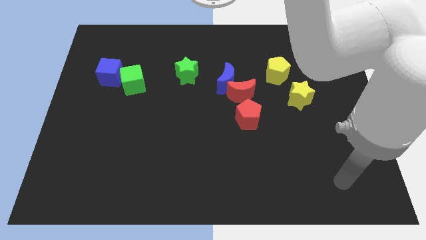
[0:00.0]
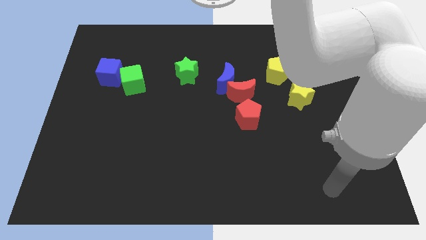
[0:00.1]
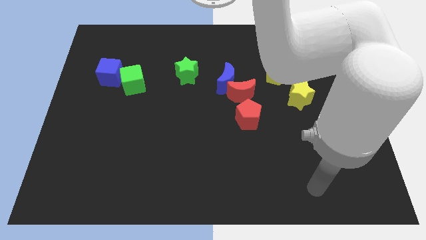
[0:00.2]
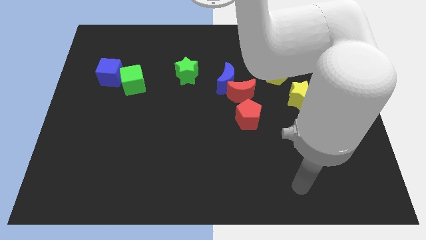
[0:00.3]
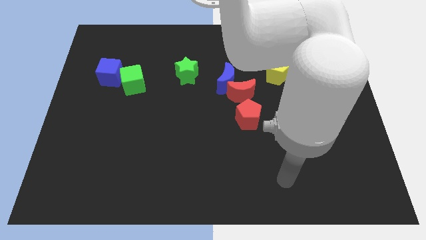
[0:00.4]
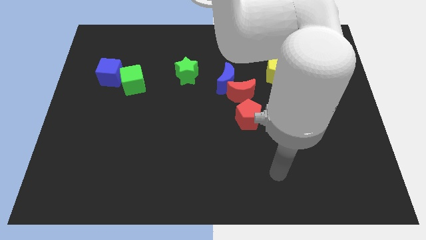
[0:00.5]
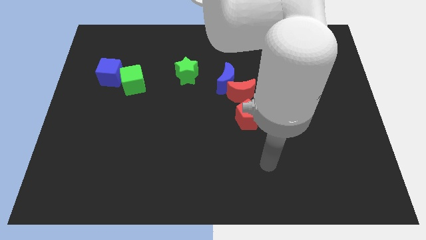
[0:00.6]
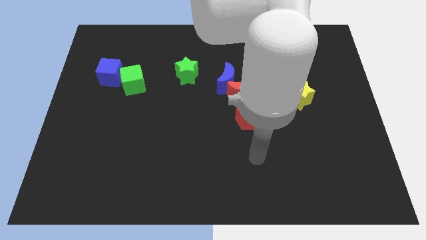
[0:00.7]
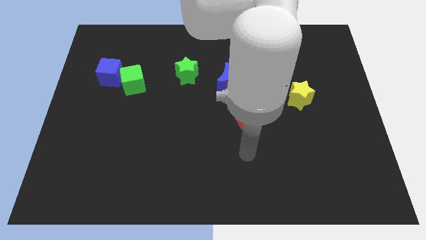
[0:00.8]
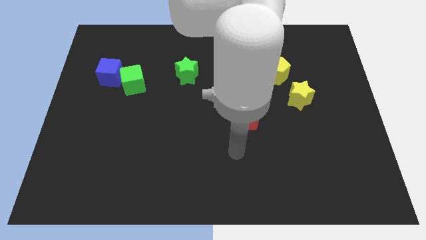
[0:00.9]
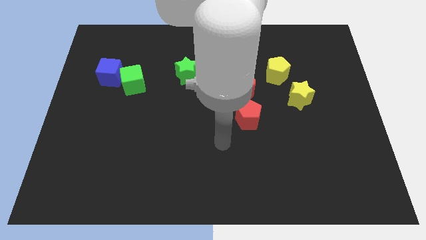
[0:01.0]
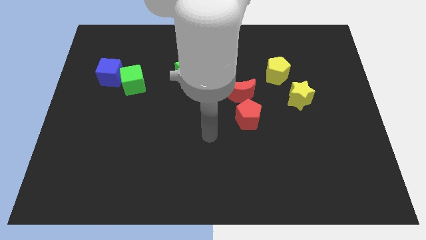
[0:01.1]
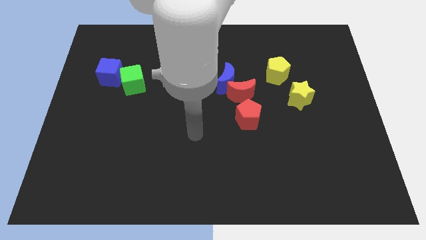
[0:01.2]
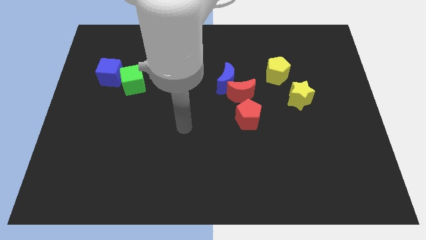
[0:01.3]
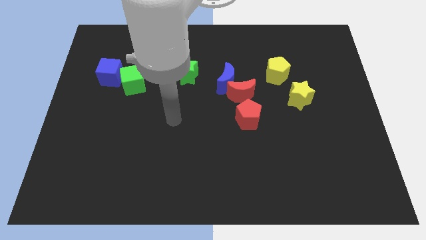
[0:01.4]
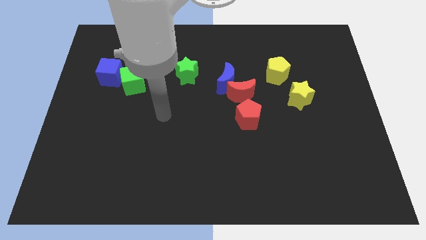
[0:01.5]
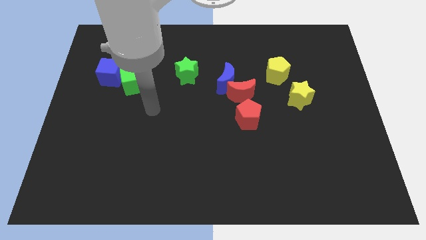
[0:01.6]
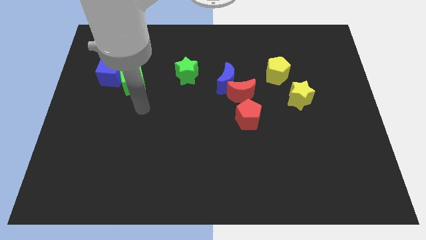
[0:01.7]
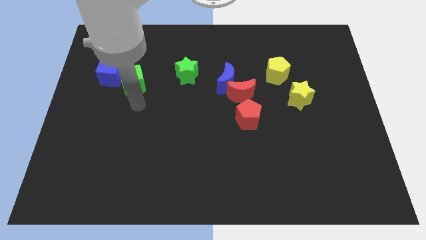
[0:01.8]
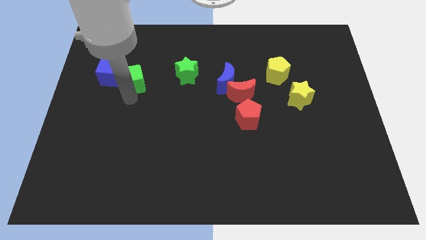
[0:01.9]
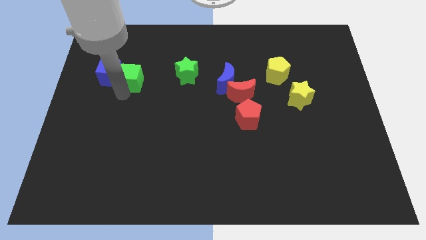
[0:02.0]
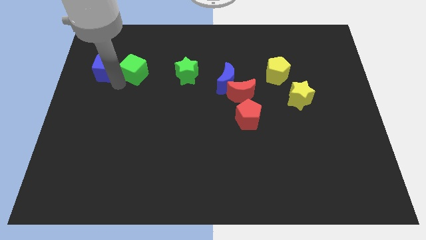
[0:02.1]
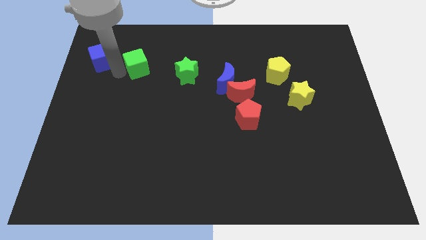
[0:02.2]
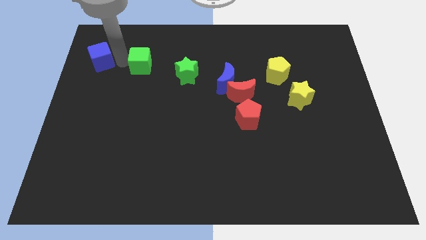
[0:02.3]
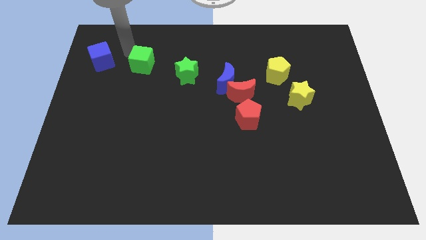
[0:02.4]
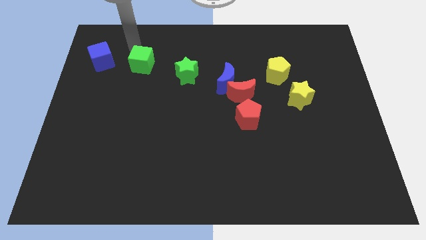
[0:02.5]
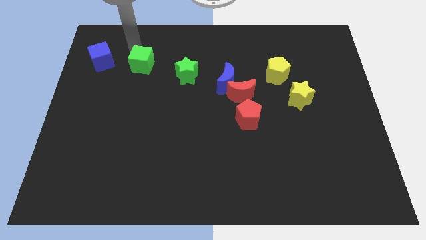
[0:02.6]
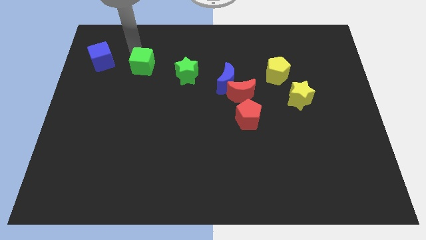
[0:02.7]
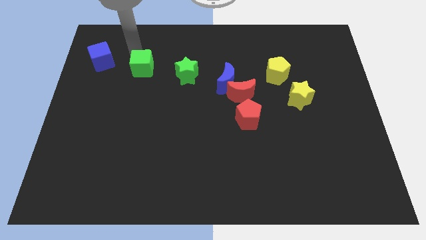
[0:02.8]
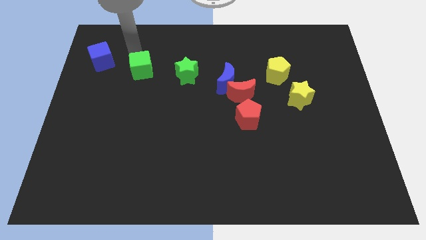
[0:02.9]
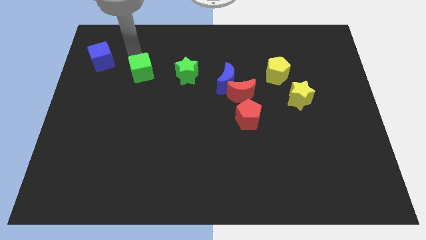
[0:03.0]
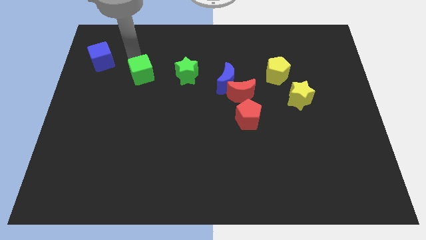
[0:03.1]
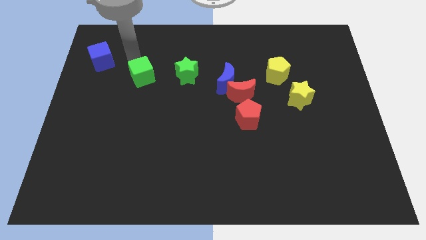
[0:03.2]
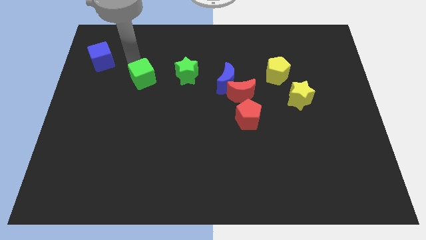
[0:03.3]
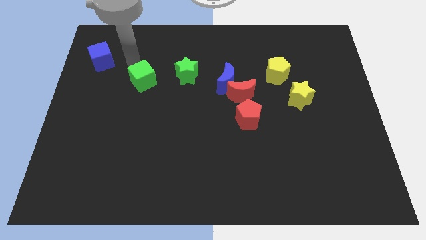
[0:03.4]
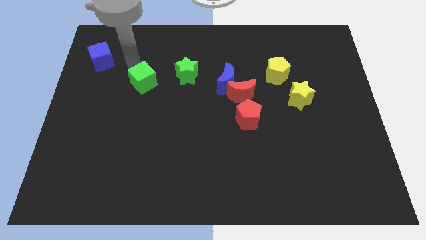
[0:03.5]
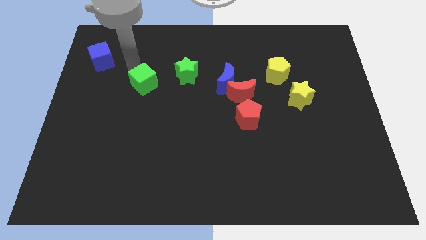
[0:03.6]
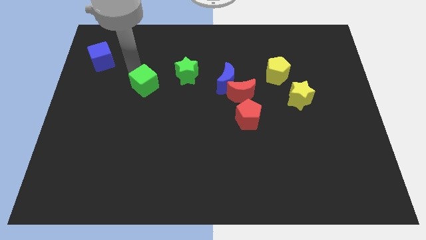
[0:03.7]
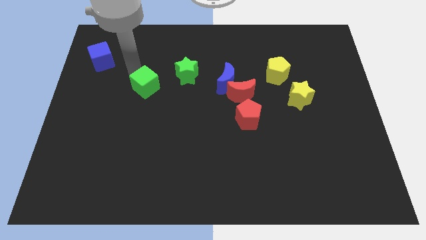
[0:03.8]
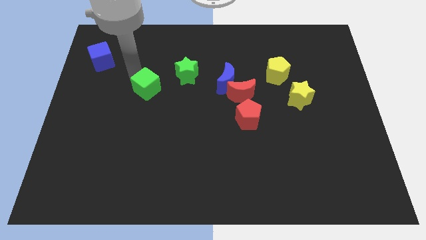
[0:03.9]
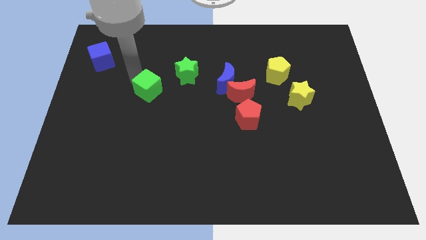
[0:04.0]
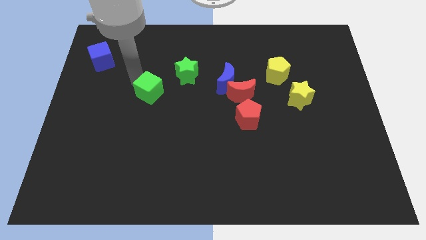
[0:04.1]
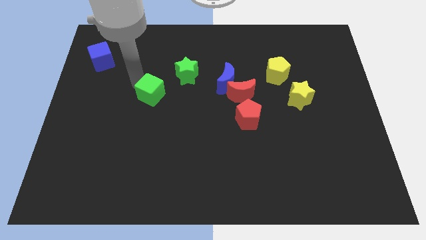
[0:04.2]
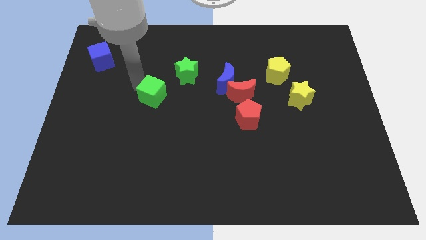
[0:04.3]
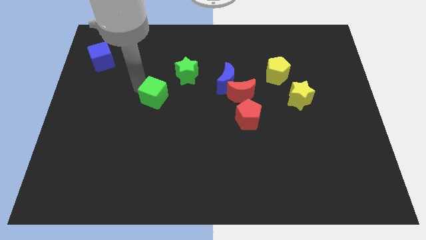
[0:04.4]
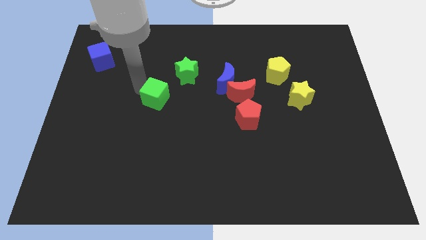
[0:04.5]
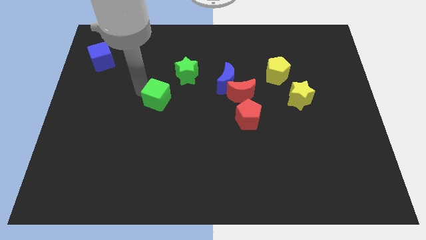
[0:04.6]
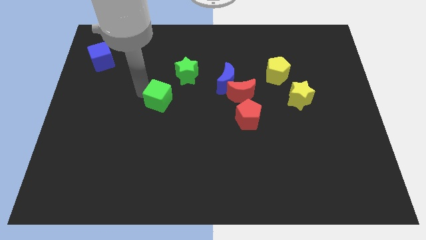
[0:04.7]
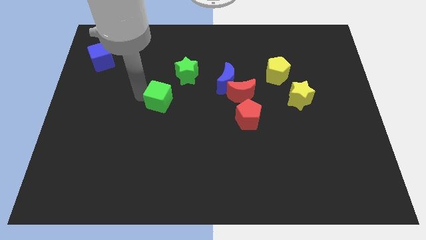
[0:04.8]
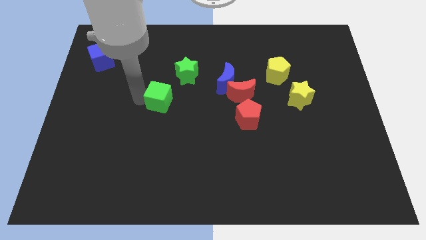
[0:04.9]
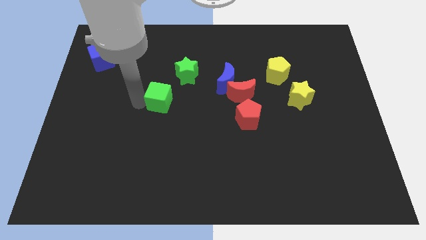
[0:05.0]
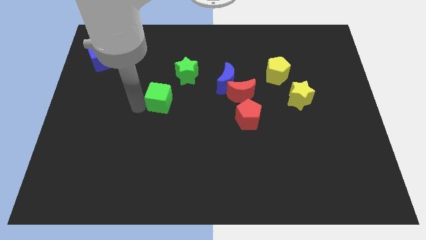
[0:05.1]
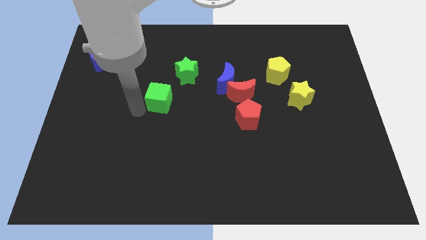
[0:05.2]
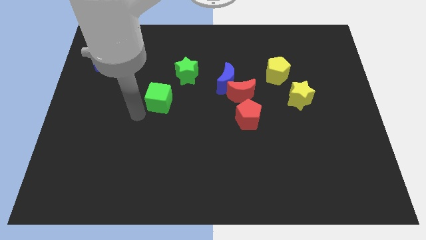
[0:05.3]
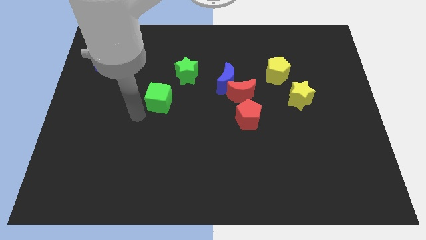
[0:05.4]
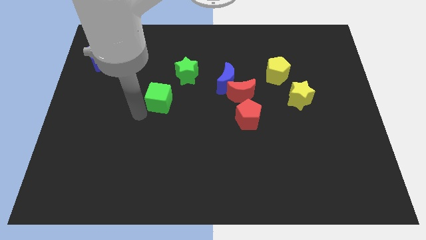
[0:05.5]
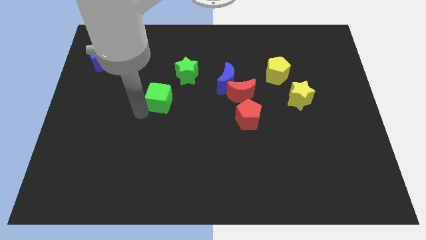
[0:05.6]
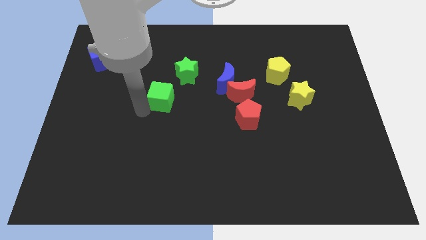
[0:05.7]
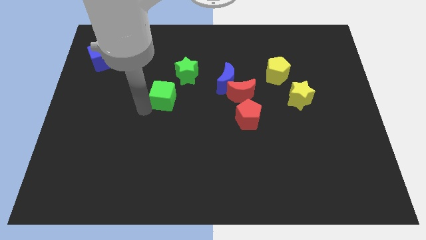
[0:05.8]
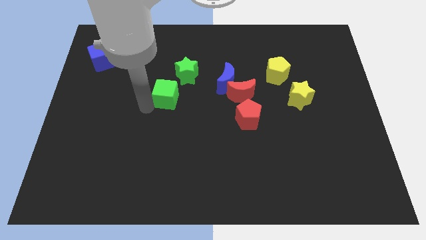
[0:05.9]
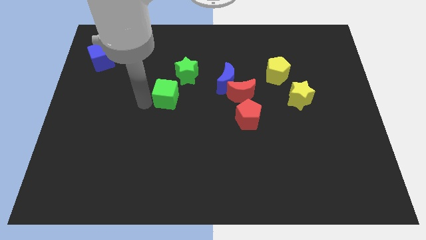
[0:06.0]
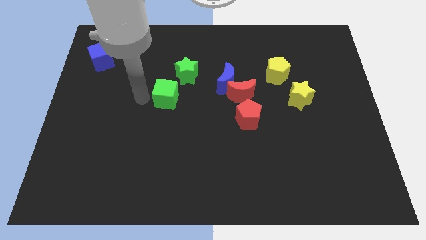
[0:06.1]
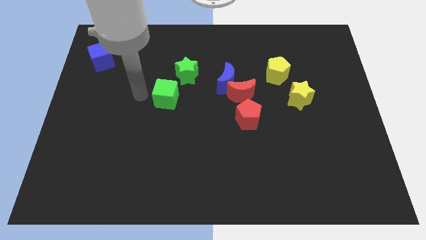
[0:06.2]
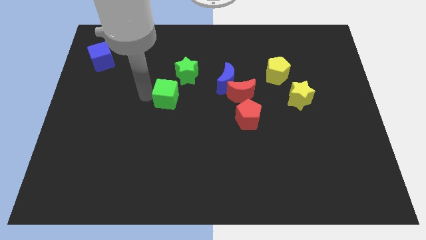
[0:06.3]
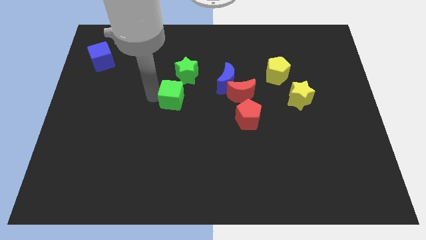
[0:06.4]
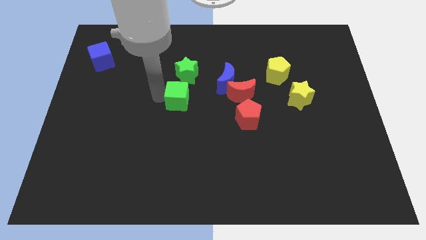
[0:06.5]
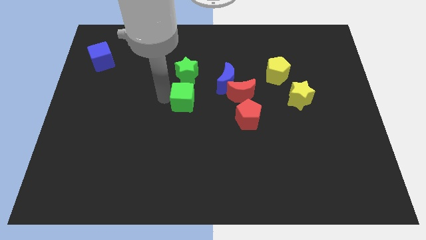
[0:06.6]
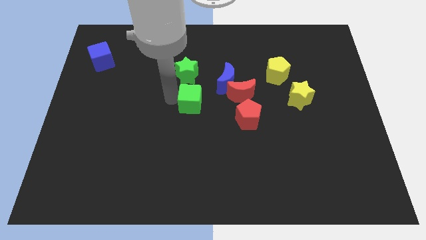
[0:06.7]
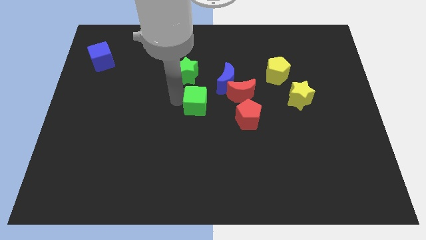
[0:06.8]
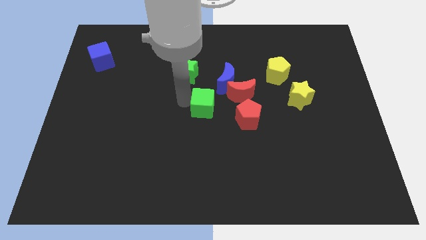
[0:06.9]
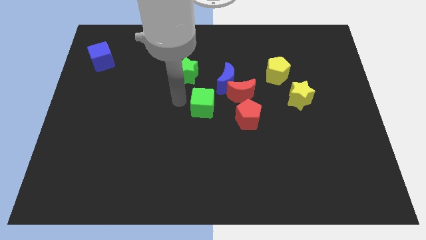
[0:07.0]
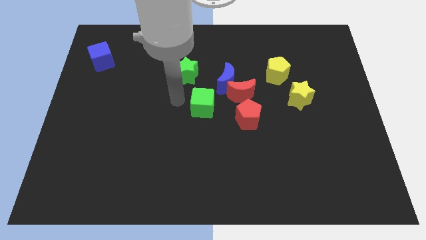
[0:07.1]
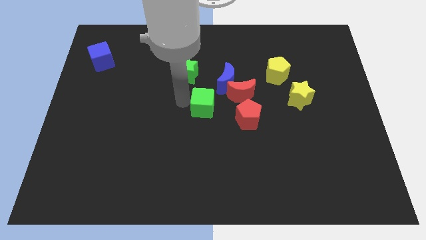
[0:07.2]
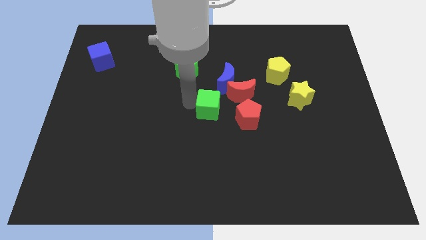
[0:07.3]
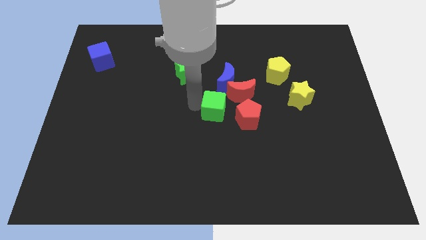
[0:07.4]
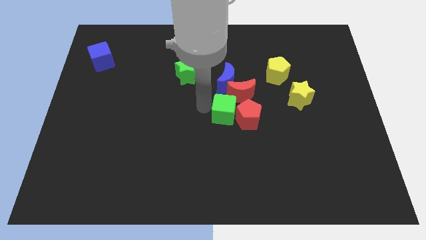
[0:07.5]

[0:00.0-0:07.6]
slide the green cube to the red pentagon

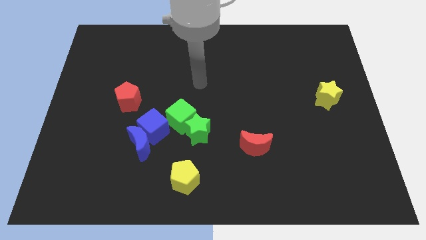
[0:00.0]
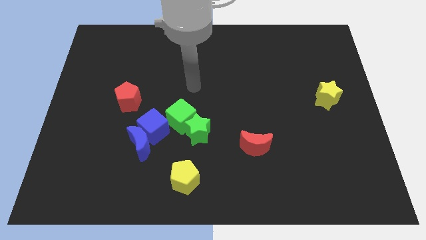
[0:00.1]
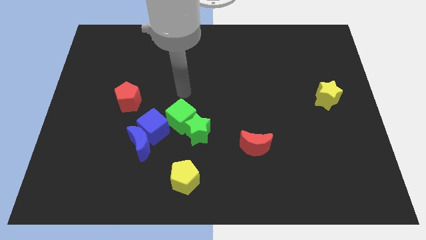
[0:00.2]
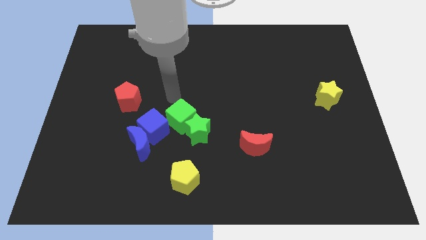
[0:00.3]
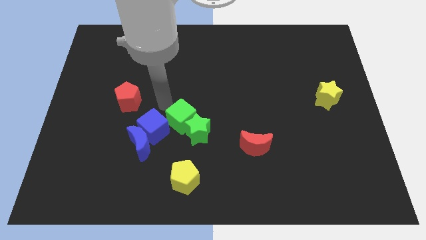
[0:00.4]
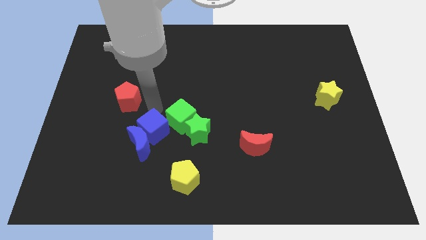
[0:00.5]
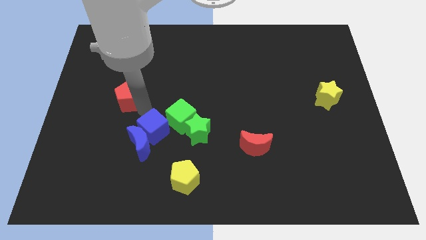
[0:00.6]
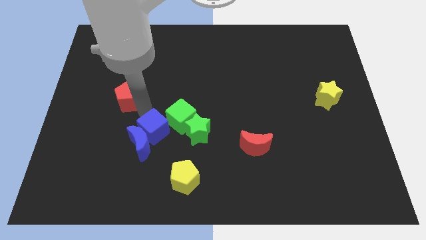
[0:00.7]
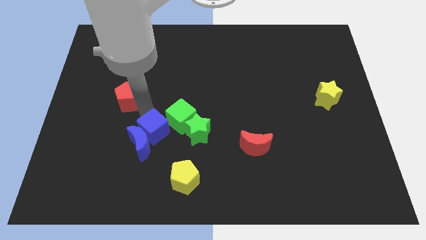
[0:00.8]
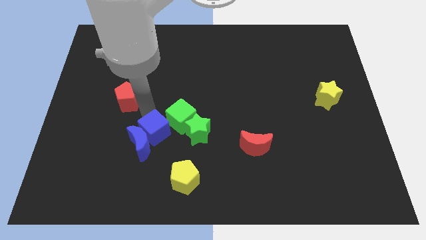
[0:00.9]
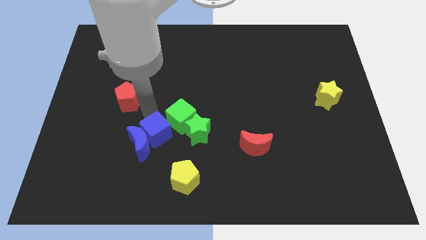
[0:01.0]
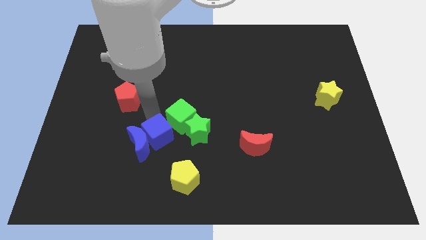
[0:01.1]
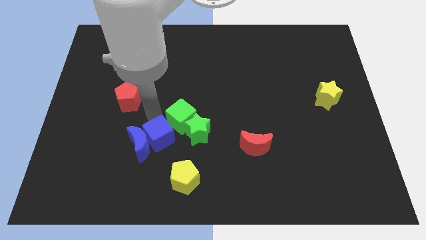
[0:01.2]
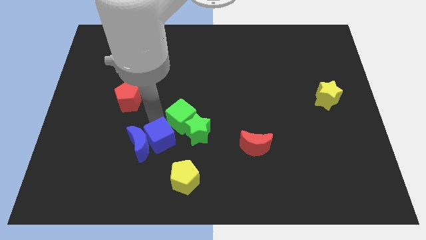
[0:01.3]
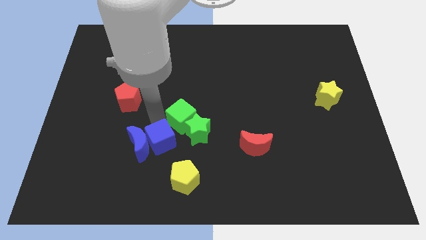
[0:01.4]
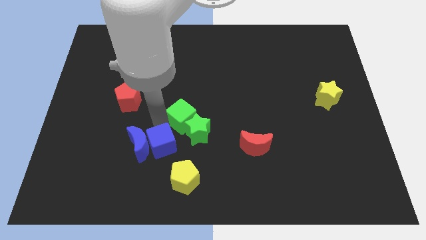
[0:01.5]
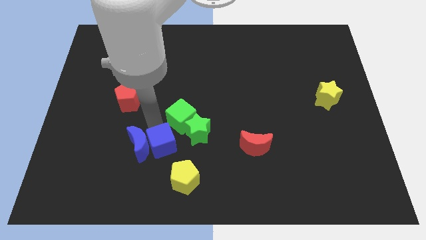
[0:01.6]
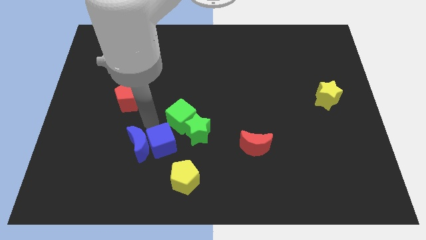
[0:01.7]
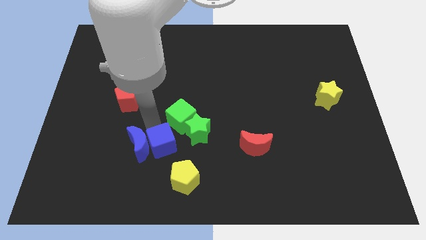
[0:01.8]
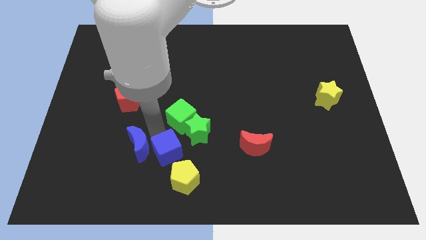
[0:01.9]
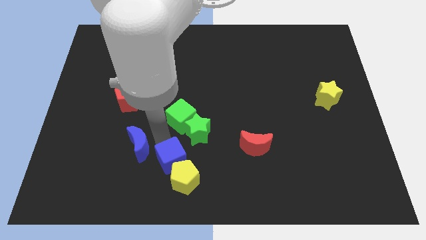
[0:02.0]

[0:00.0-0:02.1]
put the blue cube to the yellow pentagon
